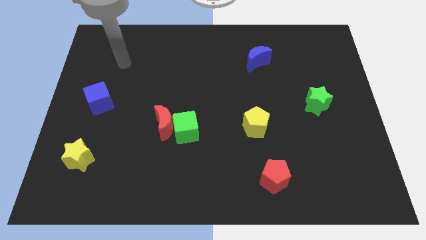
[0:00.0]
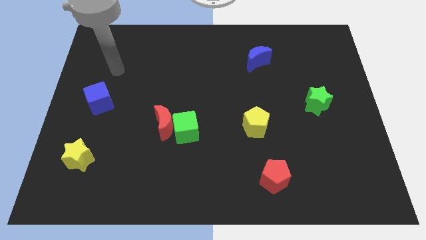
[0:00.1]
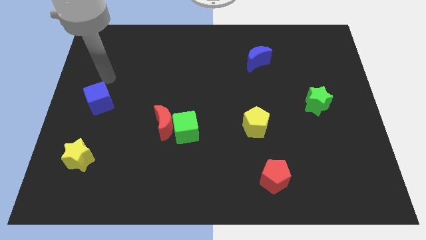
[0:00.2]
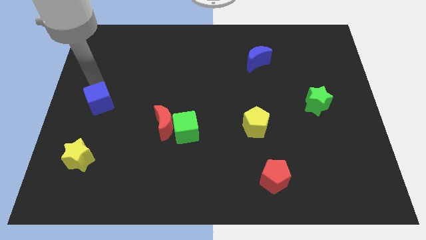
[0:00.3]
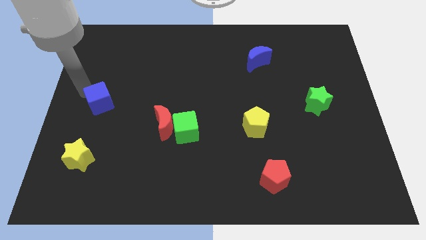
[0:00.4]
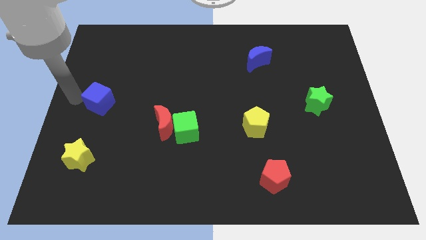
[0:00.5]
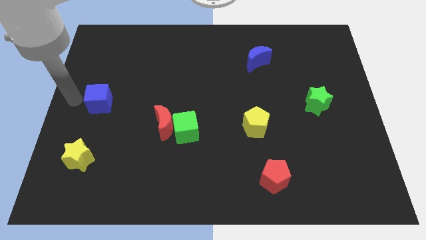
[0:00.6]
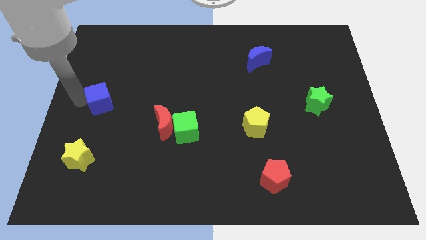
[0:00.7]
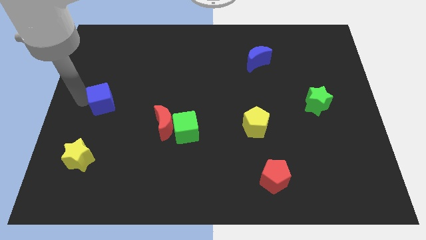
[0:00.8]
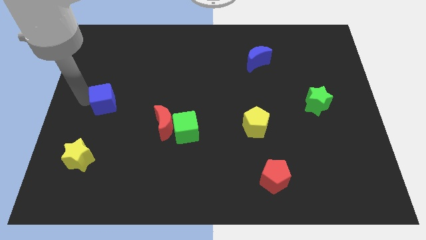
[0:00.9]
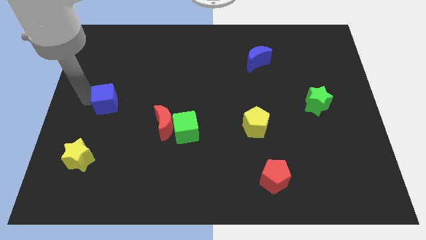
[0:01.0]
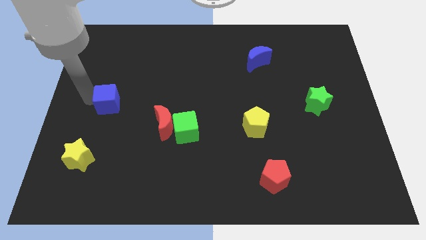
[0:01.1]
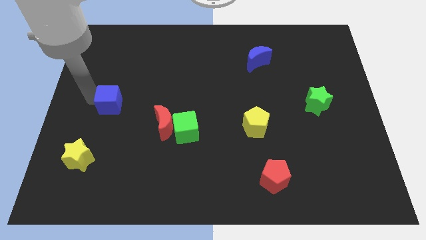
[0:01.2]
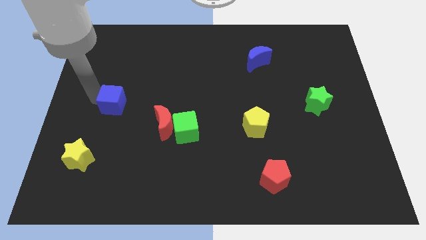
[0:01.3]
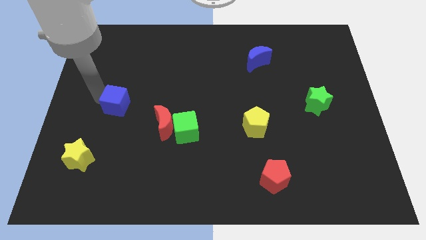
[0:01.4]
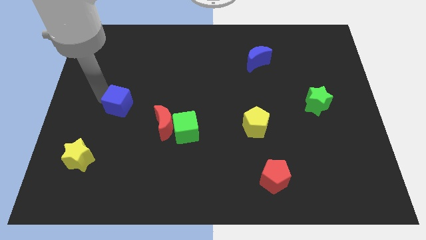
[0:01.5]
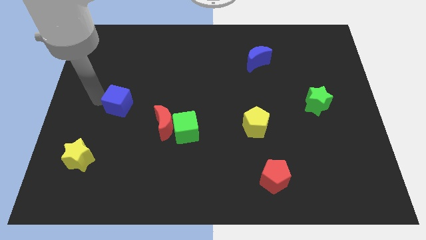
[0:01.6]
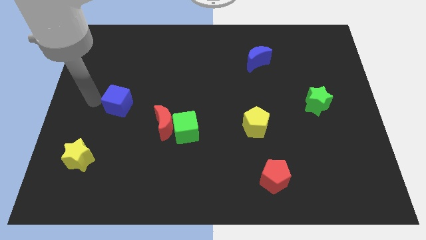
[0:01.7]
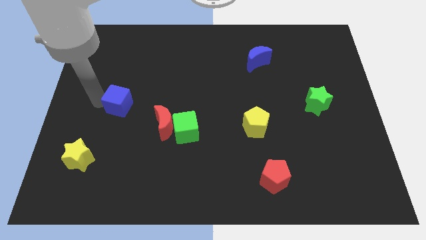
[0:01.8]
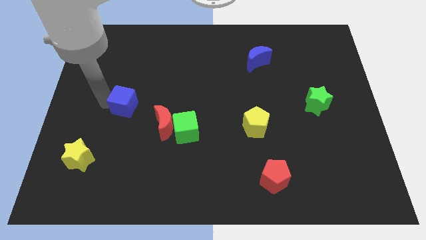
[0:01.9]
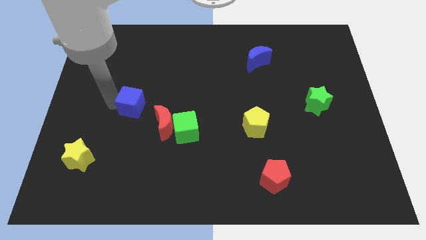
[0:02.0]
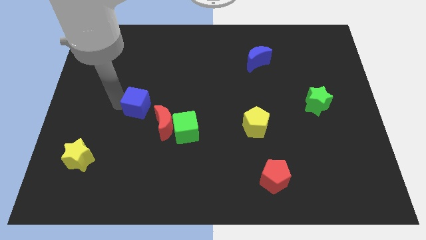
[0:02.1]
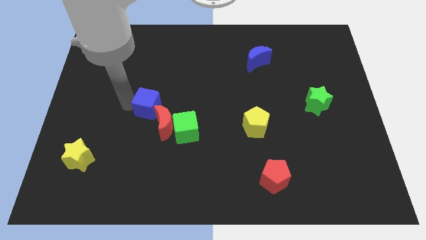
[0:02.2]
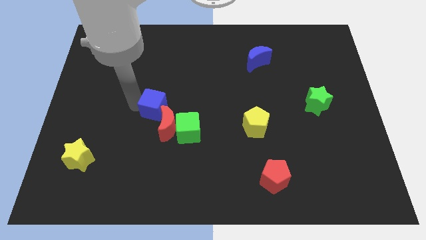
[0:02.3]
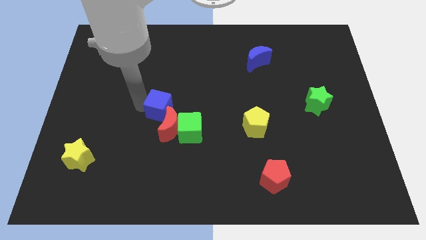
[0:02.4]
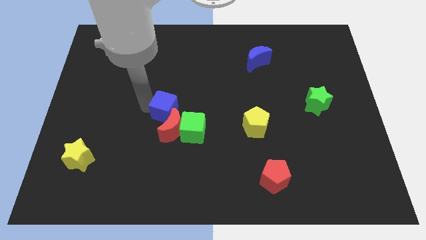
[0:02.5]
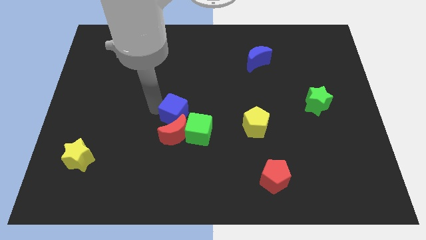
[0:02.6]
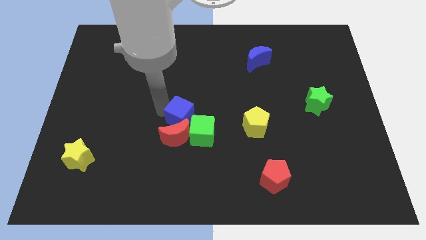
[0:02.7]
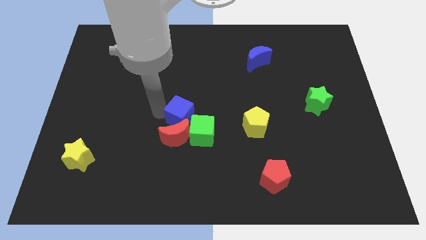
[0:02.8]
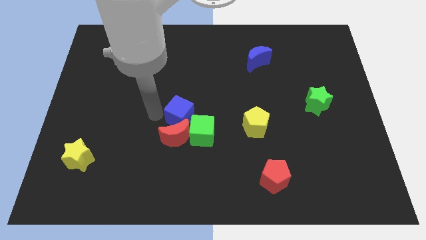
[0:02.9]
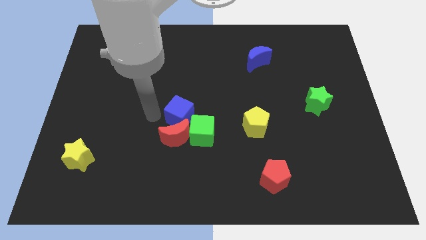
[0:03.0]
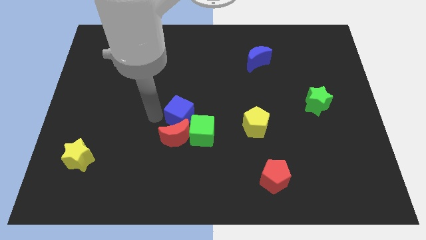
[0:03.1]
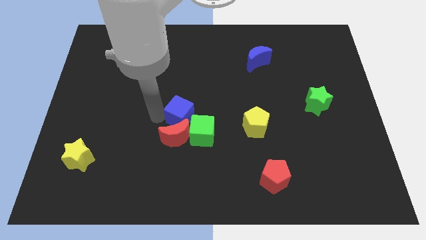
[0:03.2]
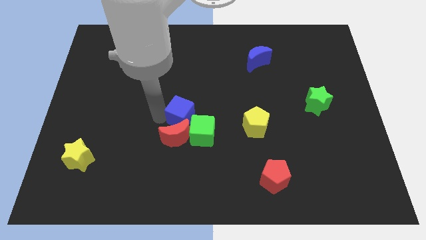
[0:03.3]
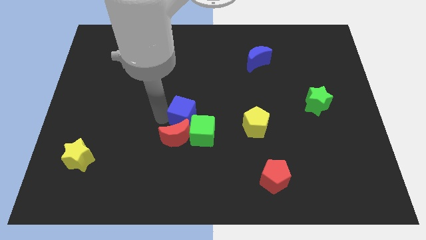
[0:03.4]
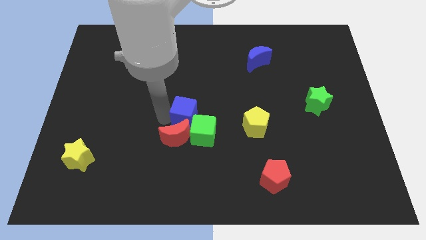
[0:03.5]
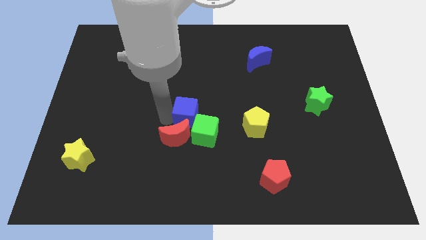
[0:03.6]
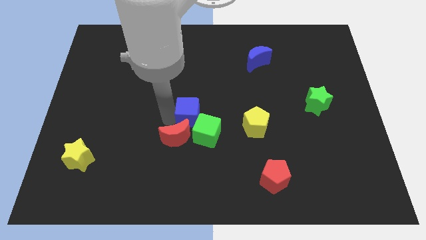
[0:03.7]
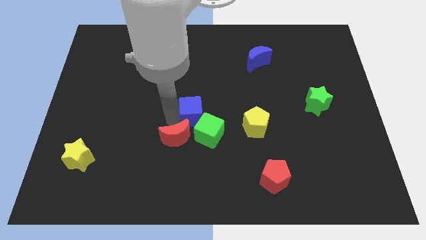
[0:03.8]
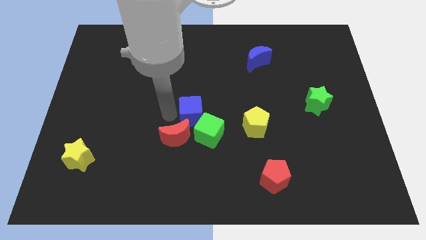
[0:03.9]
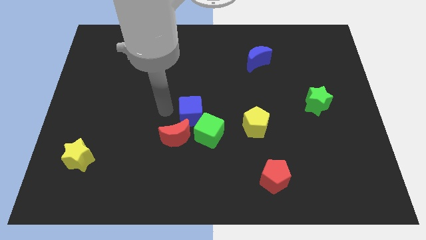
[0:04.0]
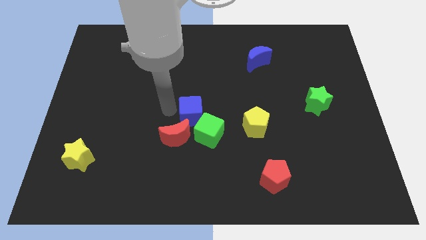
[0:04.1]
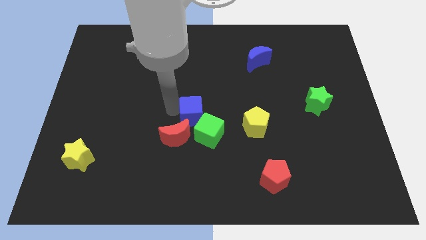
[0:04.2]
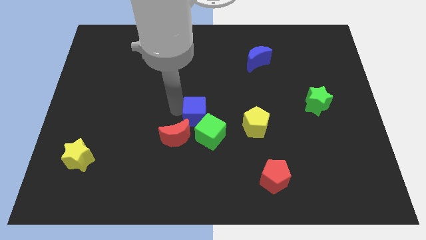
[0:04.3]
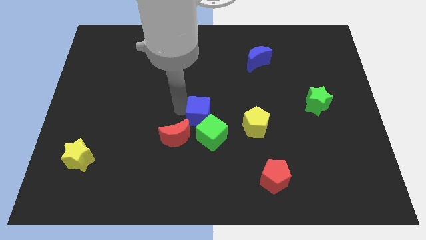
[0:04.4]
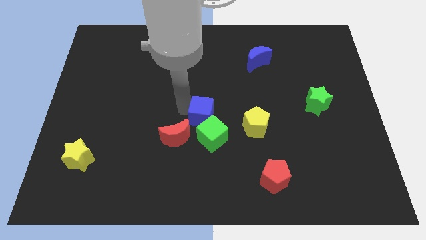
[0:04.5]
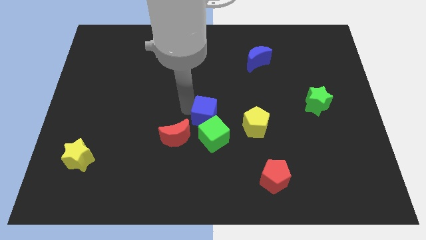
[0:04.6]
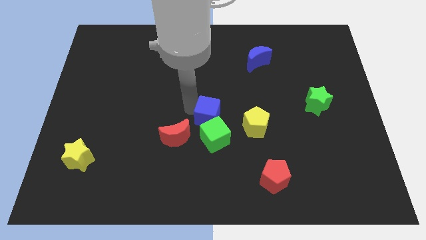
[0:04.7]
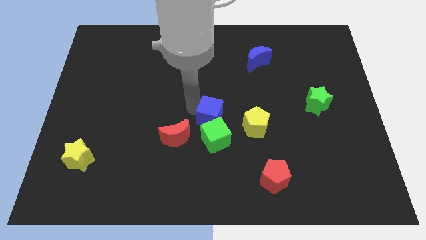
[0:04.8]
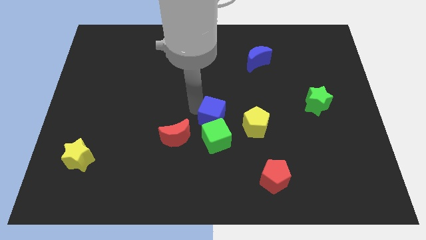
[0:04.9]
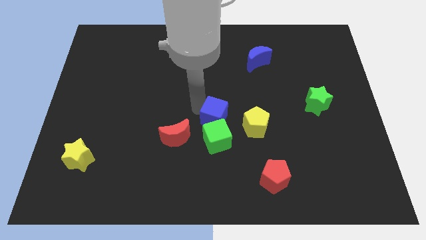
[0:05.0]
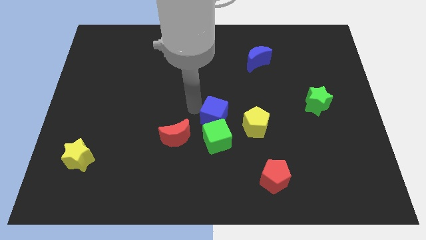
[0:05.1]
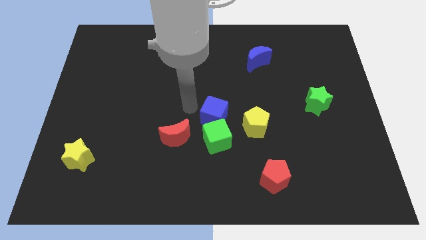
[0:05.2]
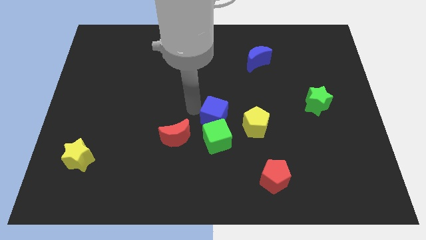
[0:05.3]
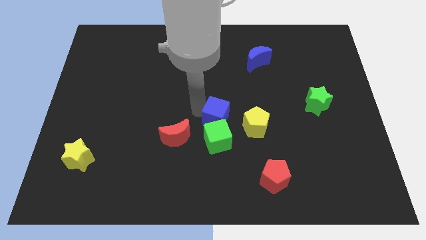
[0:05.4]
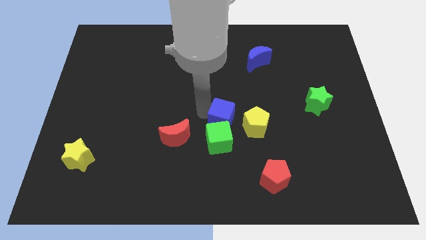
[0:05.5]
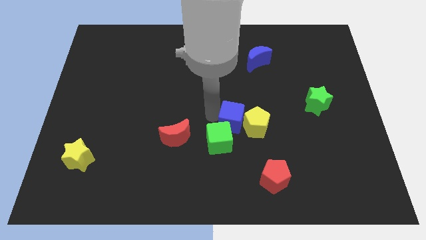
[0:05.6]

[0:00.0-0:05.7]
slide the blue cube close to the yellow pentagon

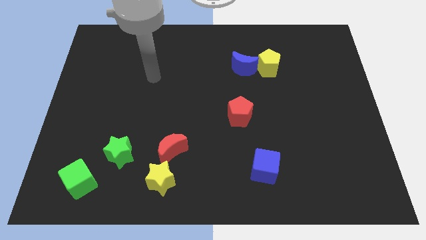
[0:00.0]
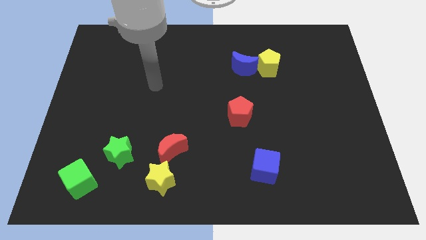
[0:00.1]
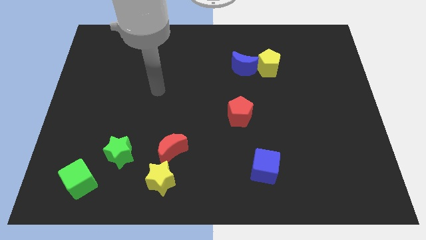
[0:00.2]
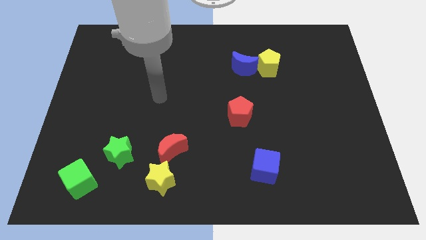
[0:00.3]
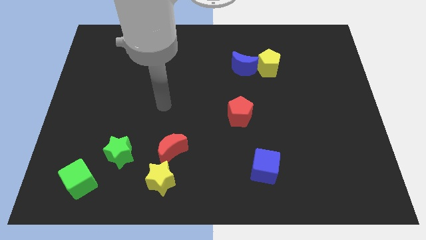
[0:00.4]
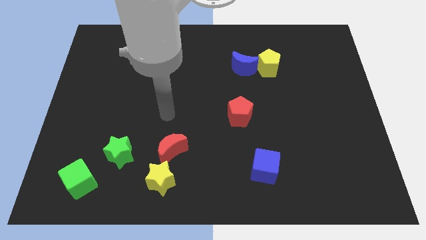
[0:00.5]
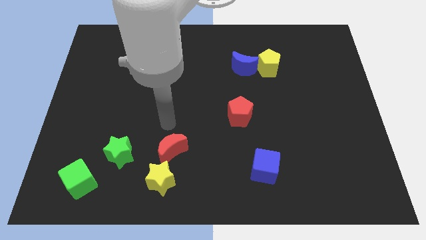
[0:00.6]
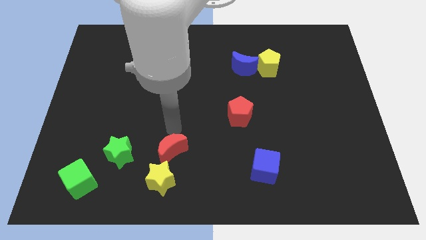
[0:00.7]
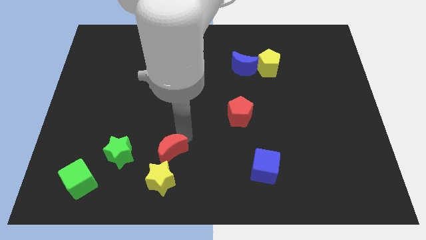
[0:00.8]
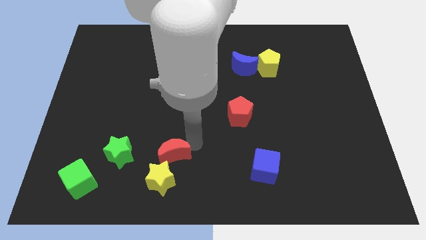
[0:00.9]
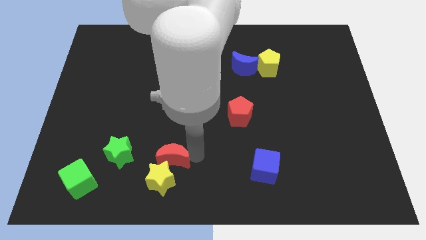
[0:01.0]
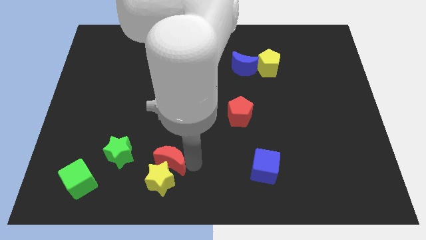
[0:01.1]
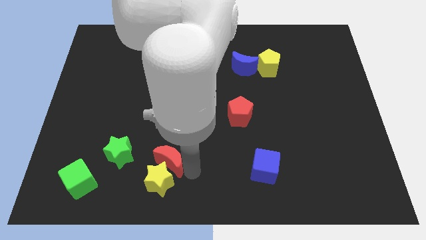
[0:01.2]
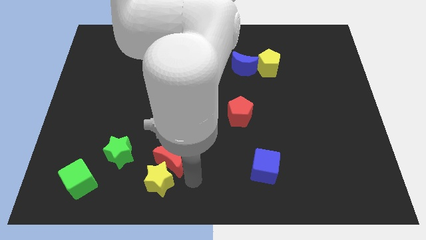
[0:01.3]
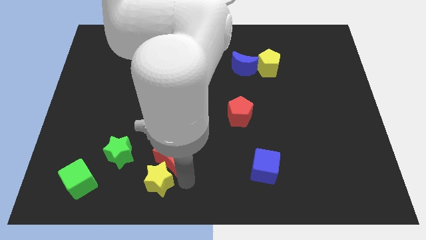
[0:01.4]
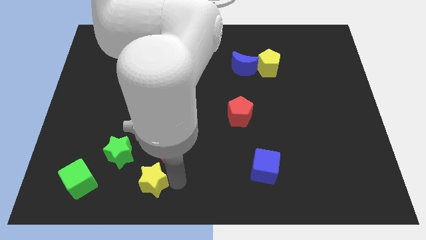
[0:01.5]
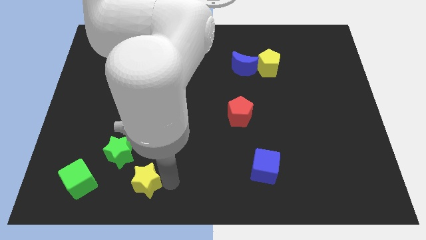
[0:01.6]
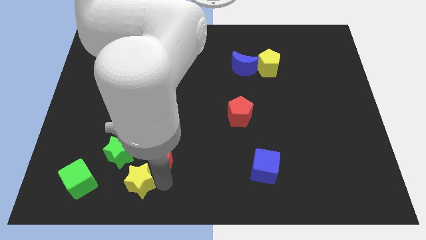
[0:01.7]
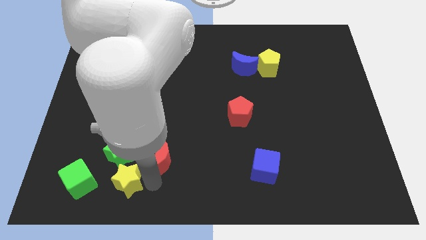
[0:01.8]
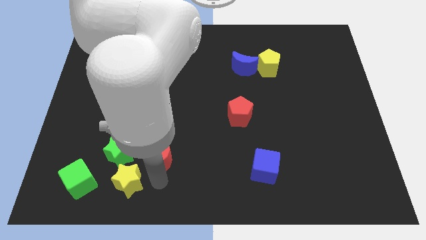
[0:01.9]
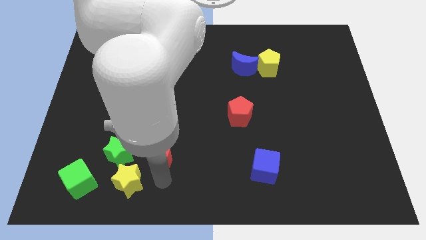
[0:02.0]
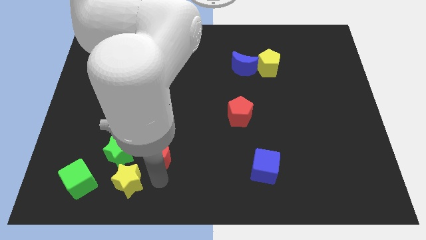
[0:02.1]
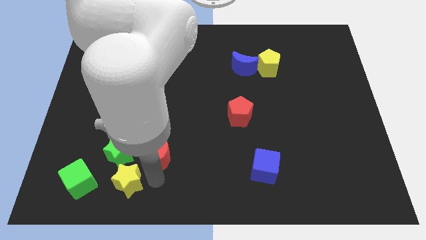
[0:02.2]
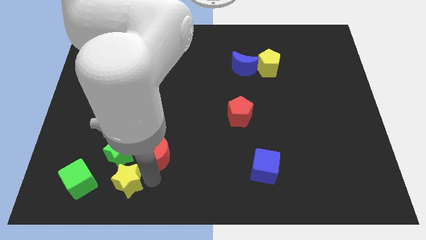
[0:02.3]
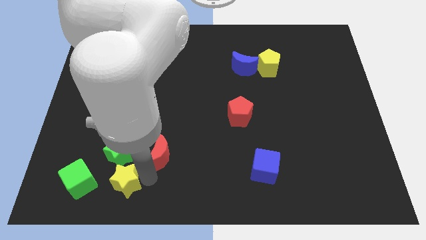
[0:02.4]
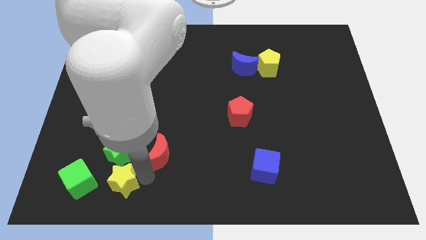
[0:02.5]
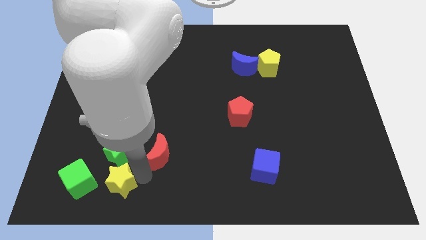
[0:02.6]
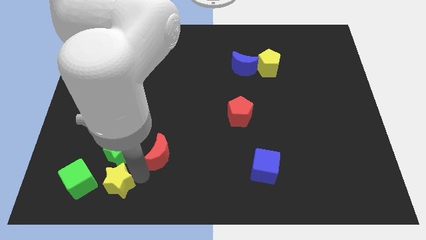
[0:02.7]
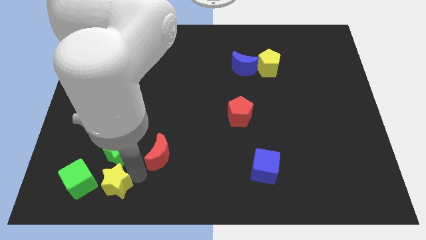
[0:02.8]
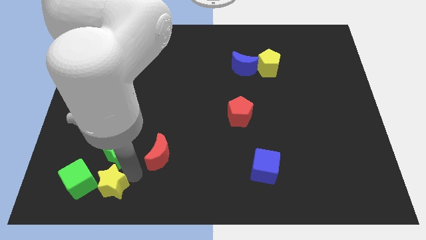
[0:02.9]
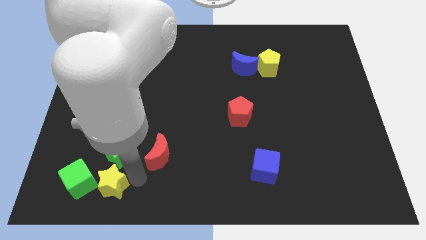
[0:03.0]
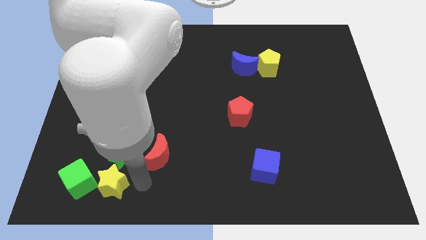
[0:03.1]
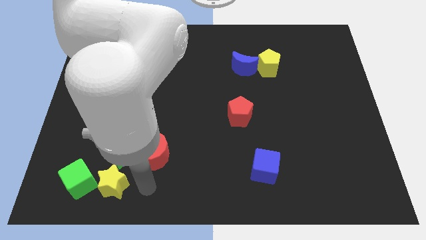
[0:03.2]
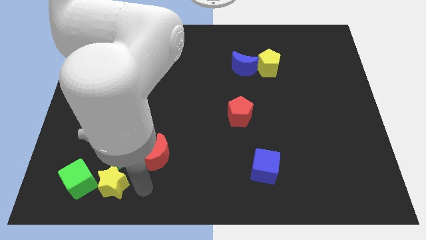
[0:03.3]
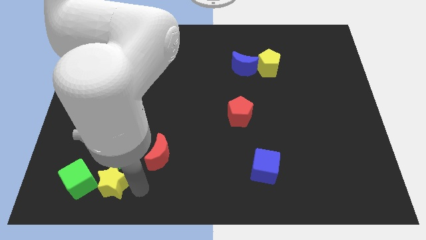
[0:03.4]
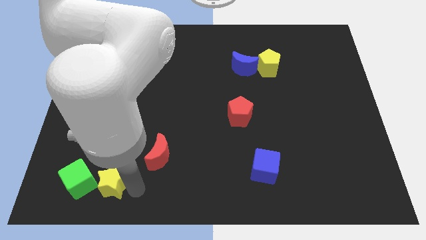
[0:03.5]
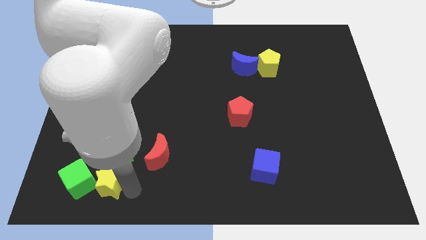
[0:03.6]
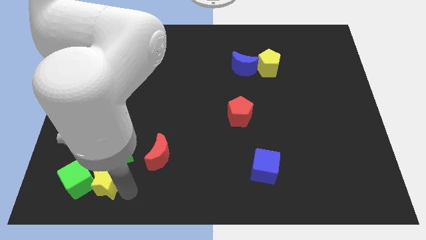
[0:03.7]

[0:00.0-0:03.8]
move the yellow star towards the green cube
